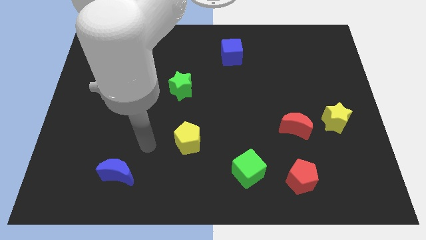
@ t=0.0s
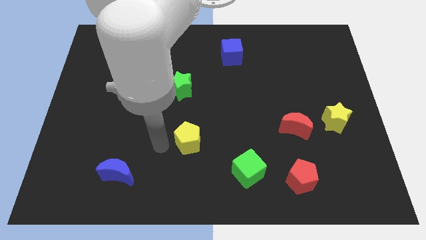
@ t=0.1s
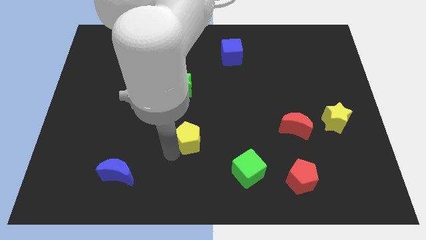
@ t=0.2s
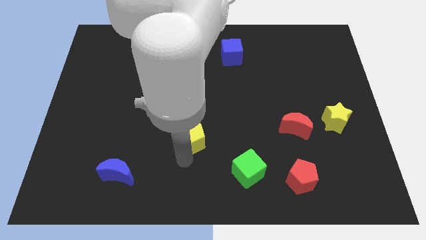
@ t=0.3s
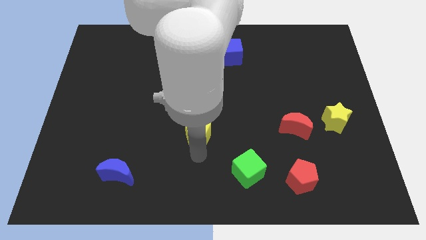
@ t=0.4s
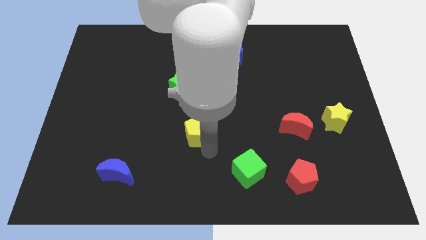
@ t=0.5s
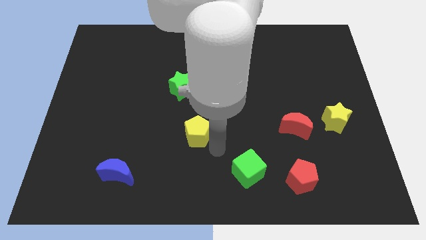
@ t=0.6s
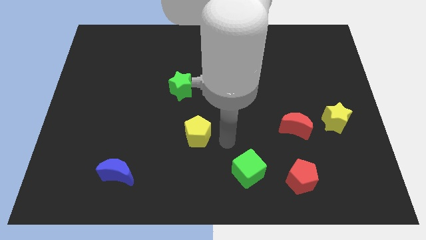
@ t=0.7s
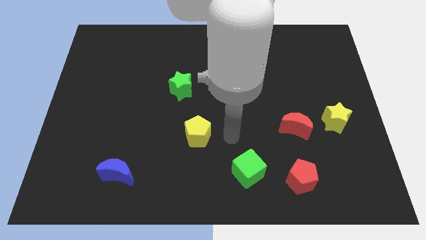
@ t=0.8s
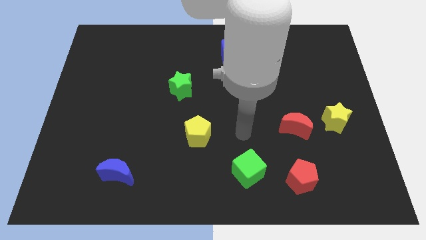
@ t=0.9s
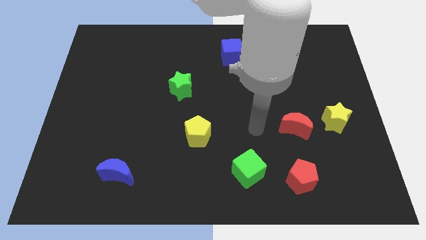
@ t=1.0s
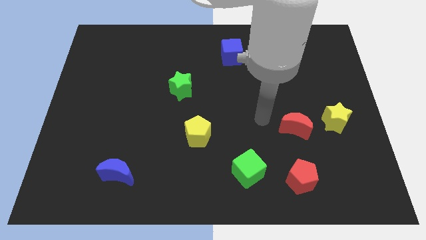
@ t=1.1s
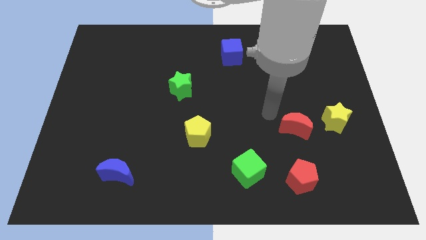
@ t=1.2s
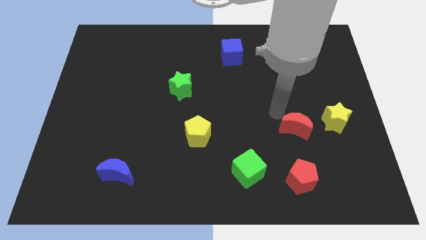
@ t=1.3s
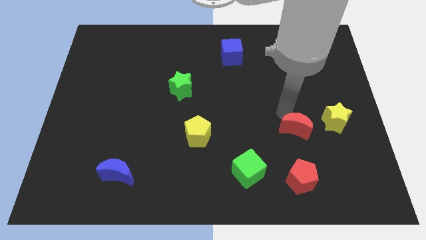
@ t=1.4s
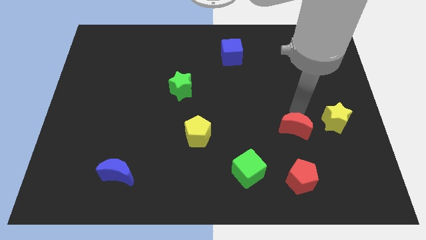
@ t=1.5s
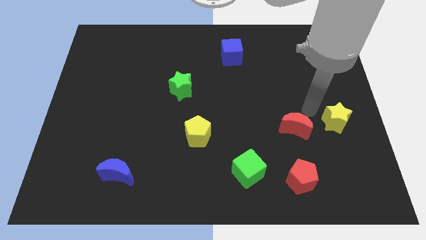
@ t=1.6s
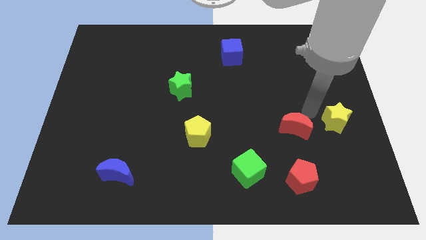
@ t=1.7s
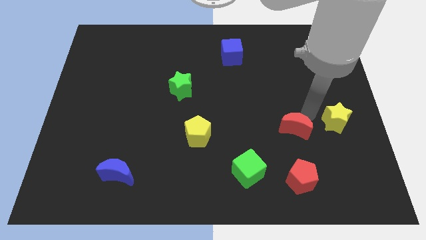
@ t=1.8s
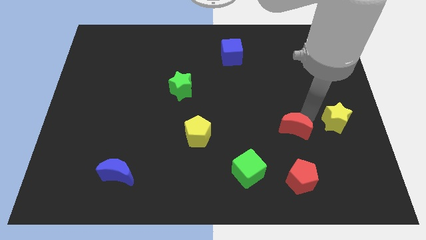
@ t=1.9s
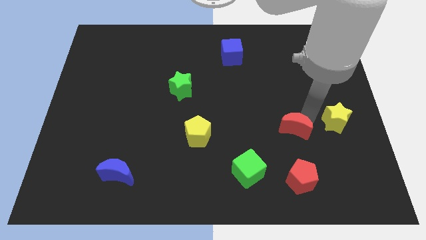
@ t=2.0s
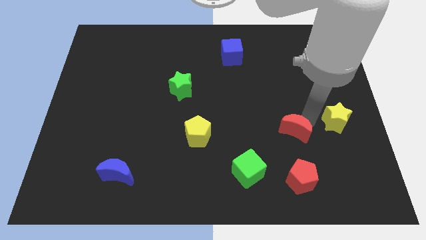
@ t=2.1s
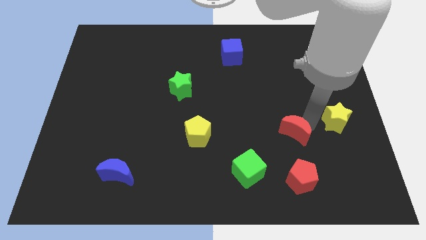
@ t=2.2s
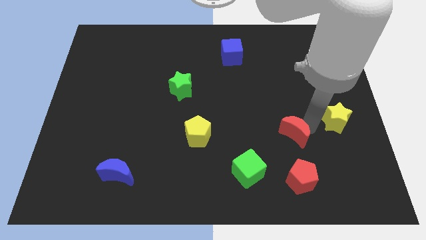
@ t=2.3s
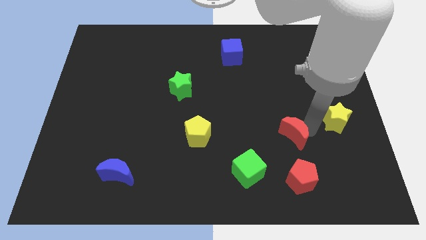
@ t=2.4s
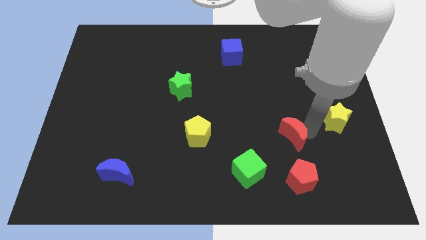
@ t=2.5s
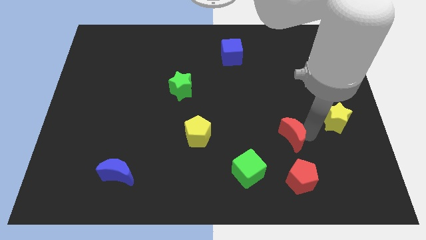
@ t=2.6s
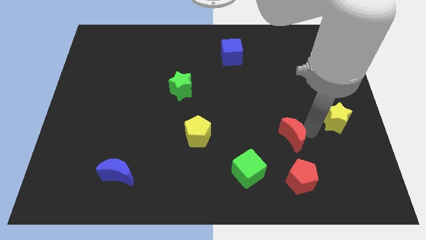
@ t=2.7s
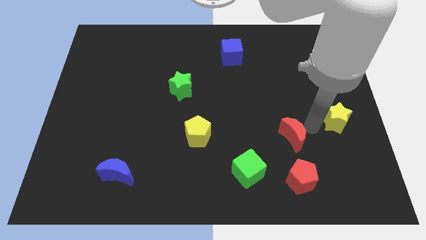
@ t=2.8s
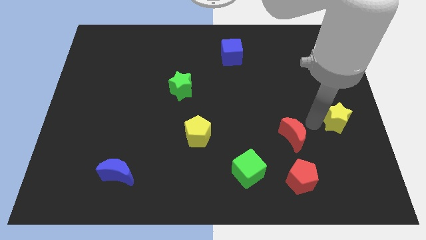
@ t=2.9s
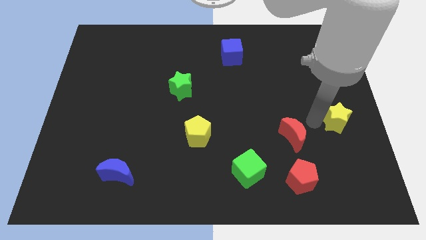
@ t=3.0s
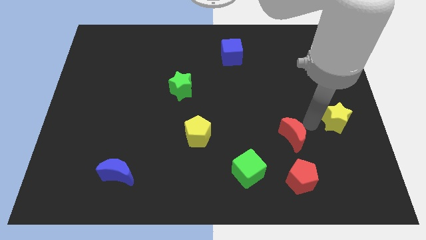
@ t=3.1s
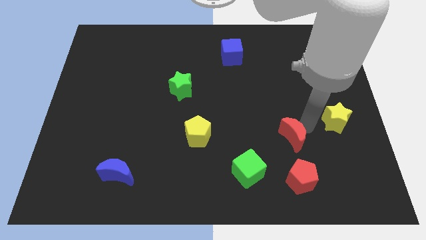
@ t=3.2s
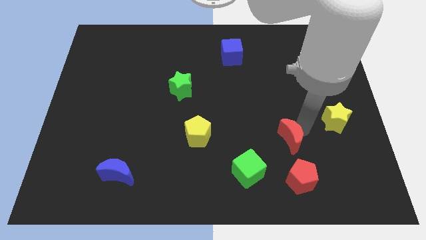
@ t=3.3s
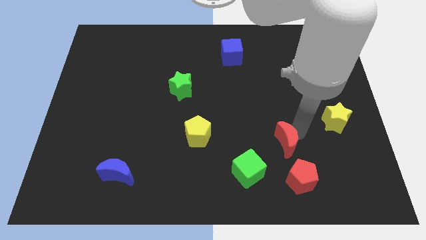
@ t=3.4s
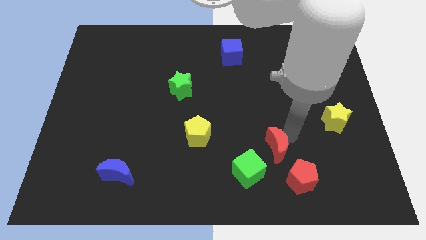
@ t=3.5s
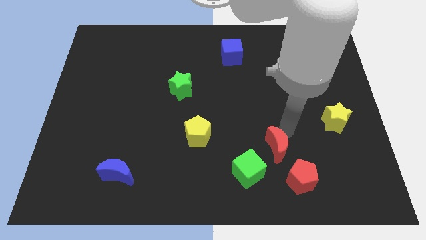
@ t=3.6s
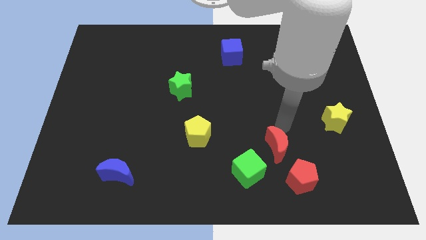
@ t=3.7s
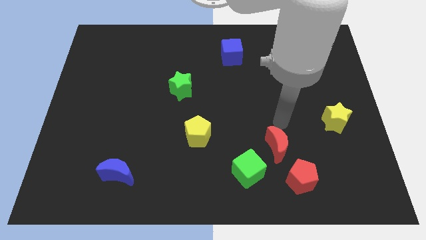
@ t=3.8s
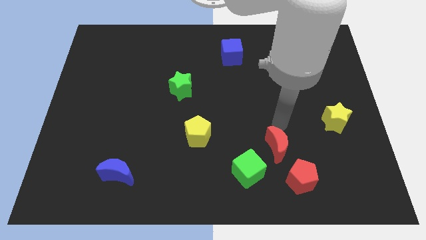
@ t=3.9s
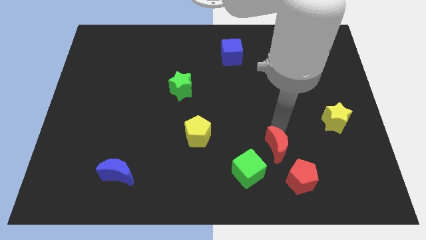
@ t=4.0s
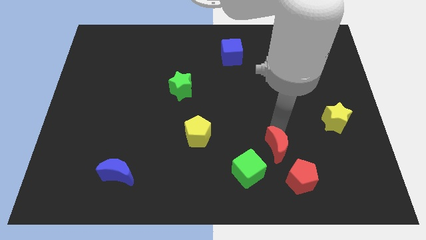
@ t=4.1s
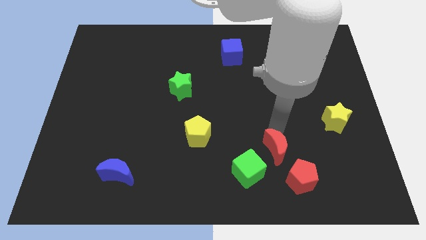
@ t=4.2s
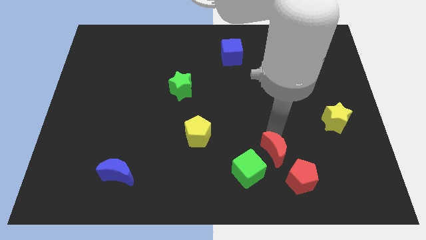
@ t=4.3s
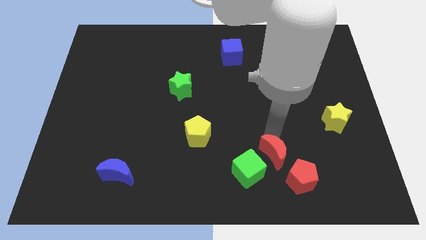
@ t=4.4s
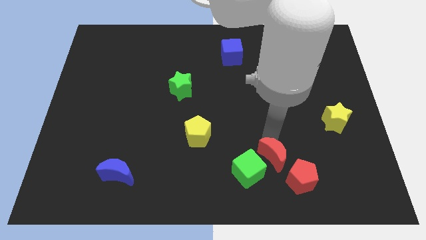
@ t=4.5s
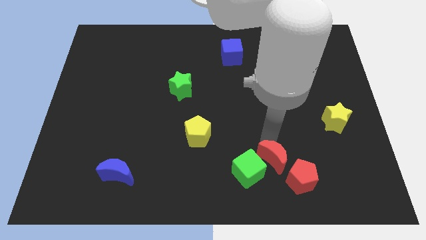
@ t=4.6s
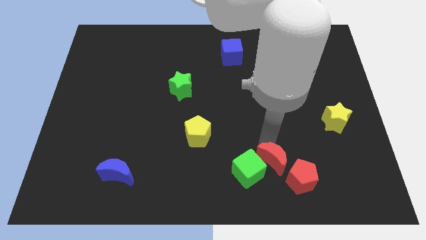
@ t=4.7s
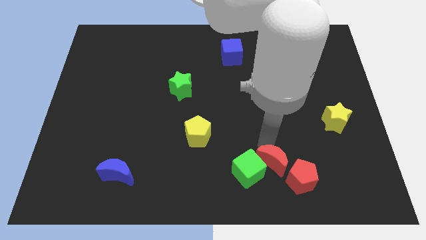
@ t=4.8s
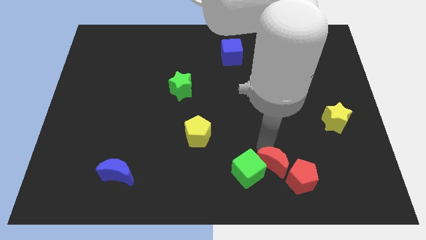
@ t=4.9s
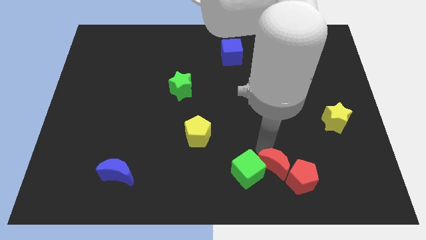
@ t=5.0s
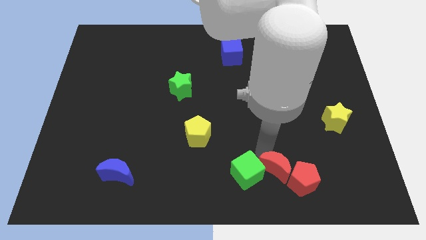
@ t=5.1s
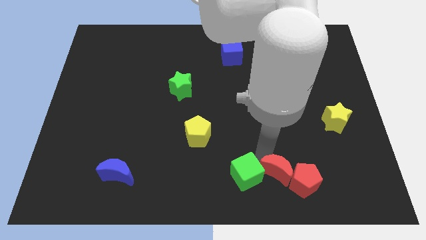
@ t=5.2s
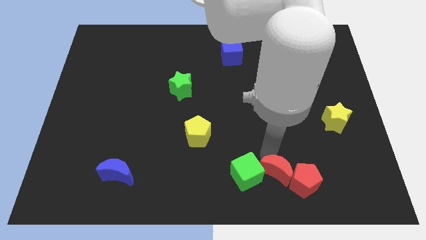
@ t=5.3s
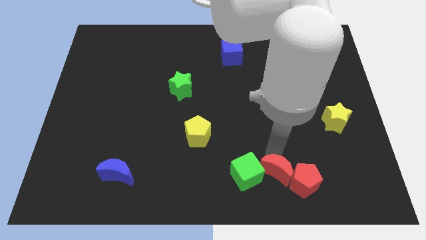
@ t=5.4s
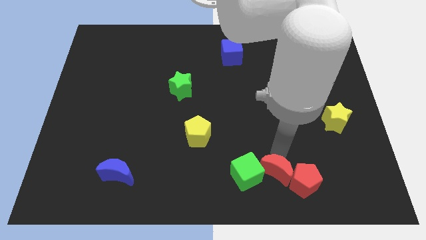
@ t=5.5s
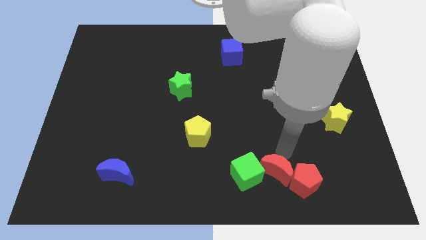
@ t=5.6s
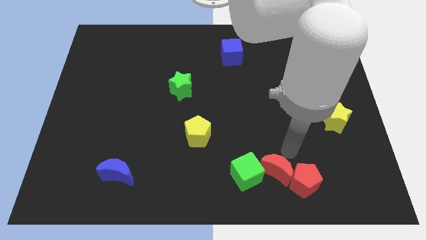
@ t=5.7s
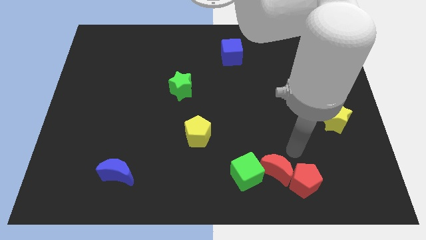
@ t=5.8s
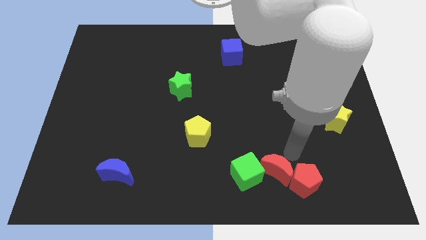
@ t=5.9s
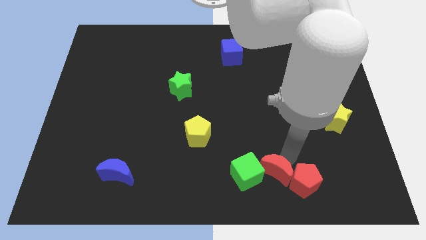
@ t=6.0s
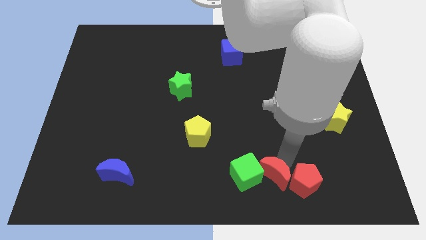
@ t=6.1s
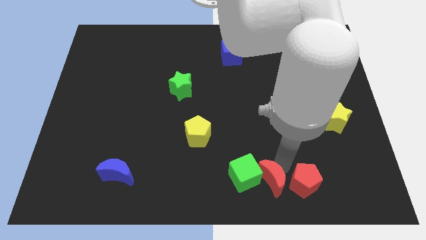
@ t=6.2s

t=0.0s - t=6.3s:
push the red moon to the bottom
